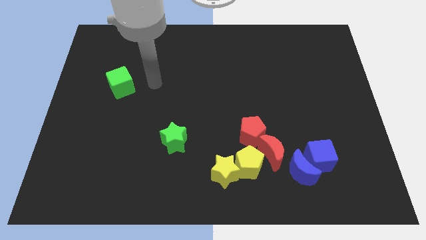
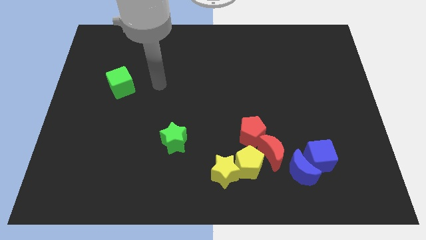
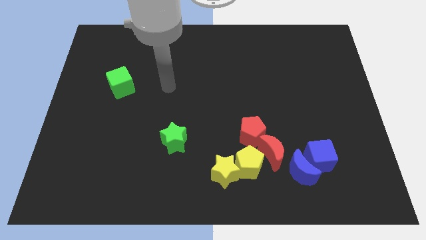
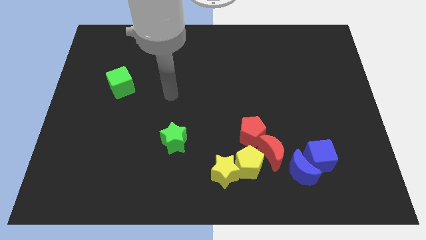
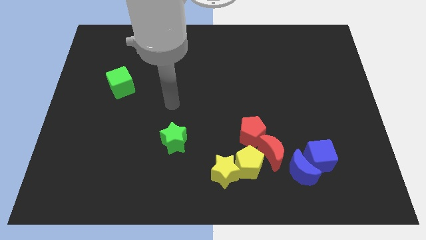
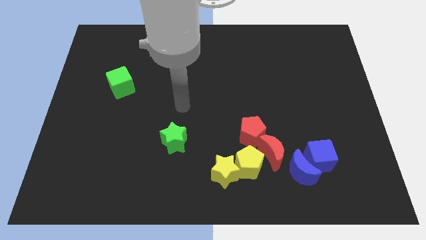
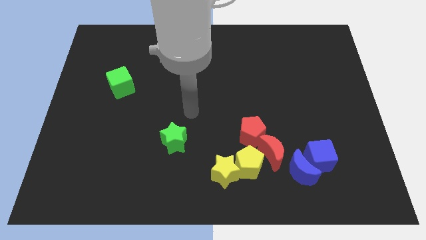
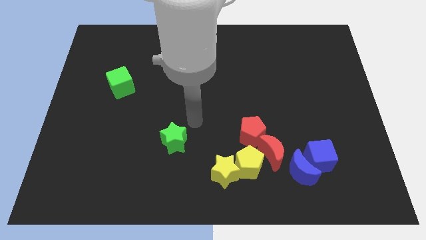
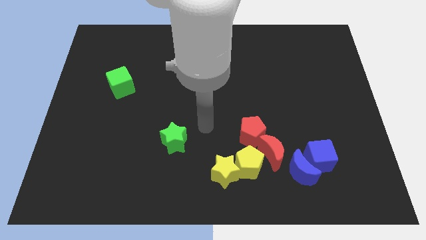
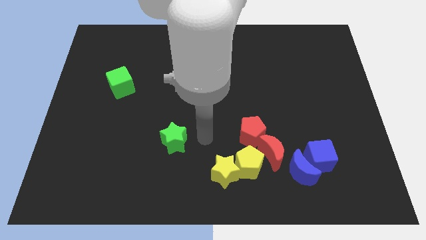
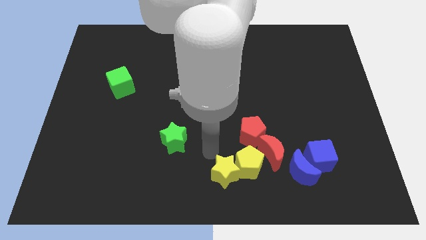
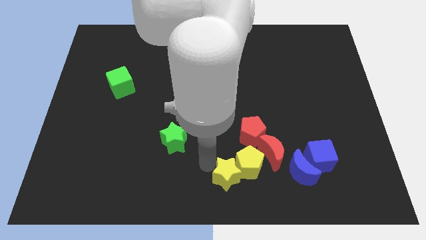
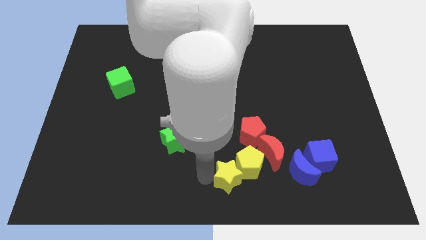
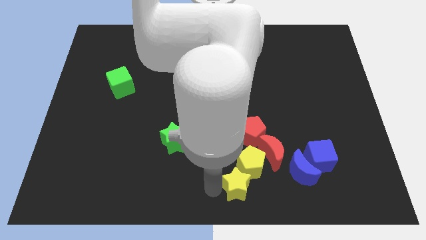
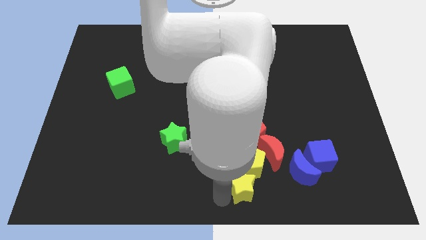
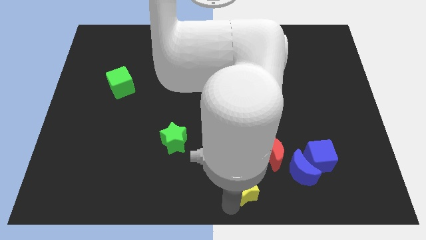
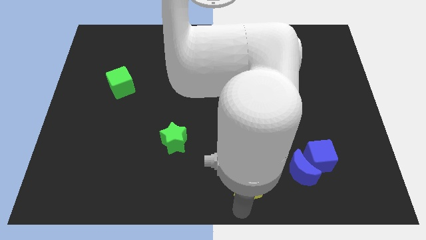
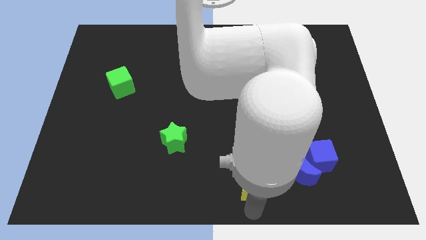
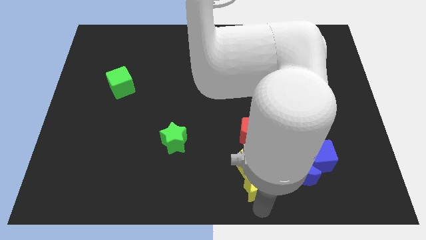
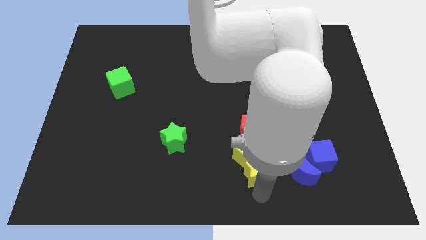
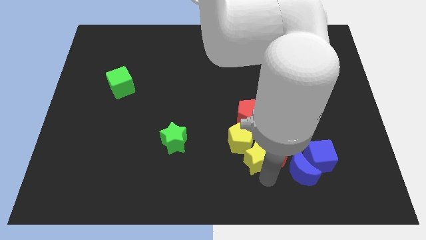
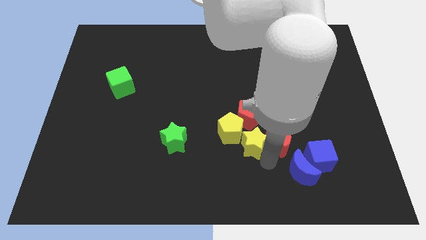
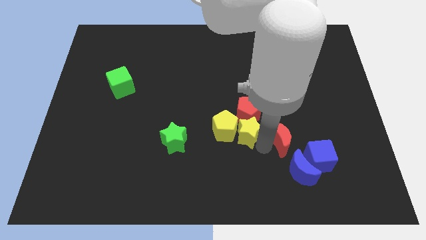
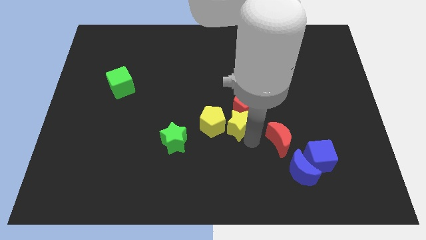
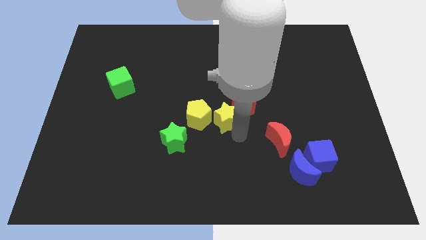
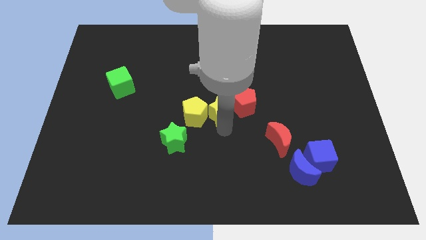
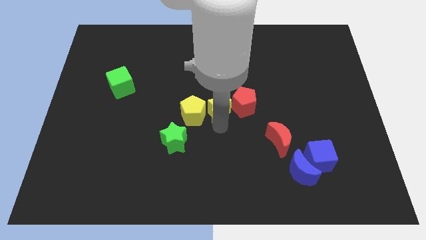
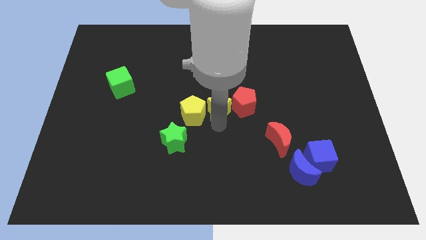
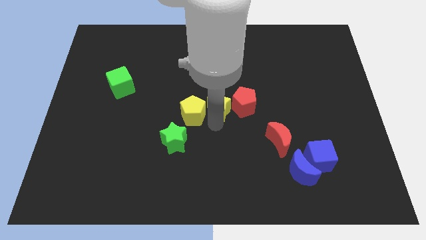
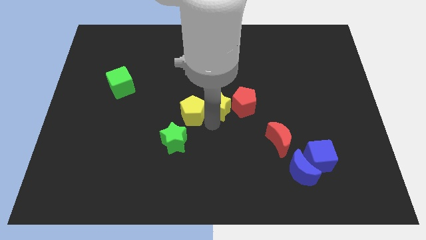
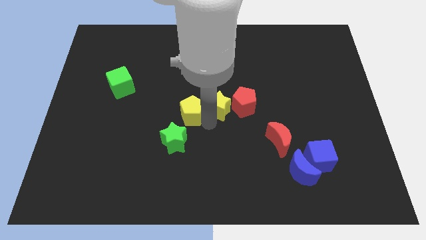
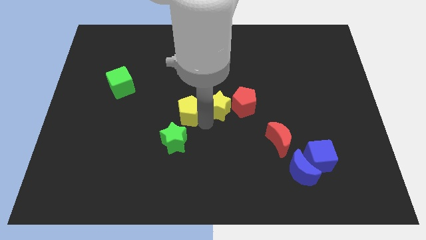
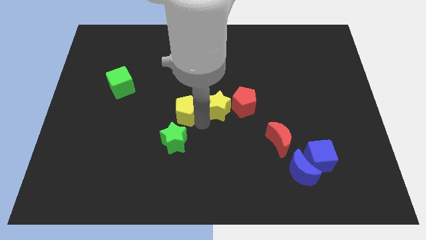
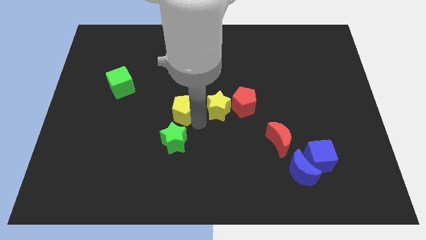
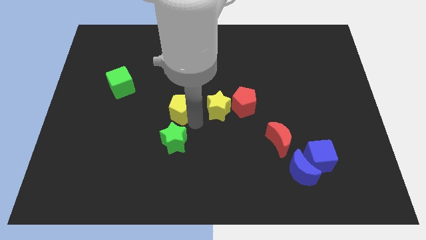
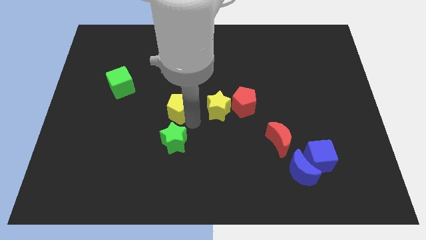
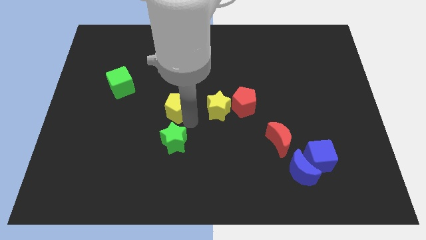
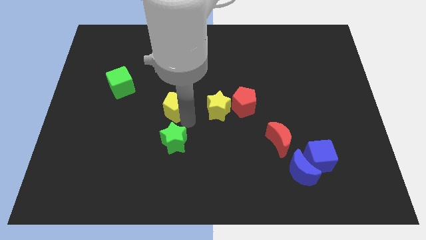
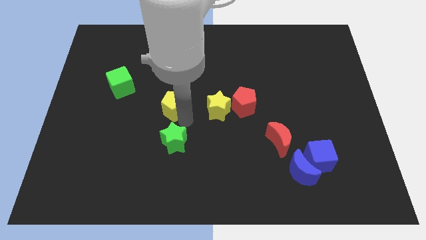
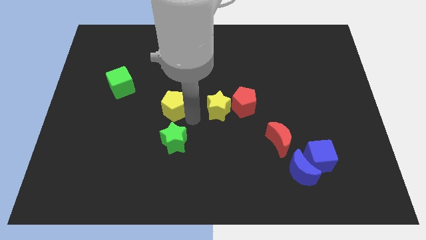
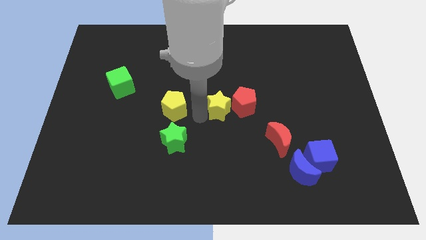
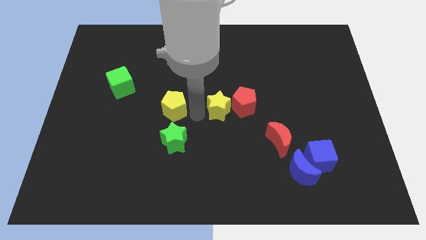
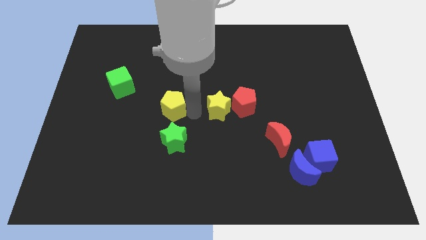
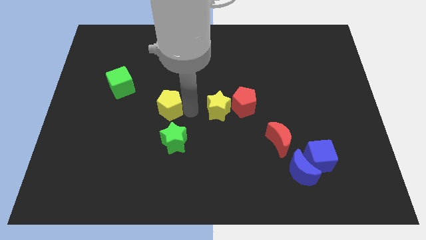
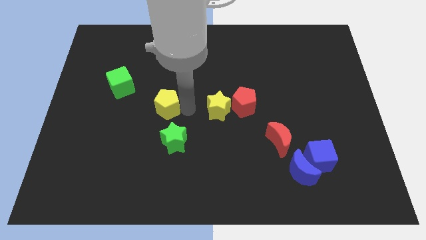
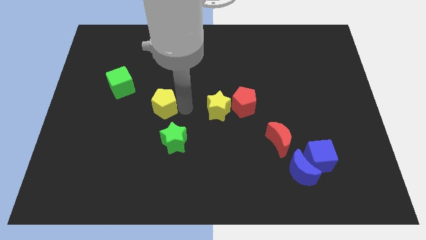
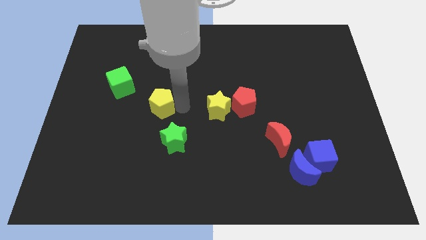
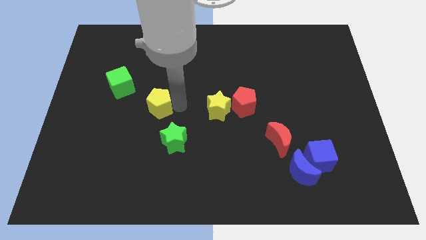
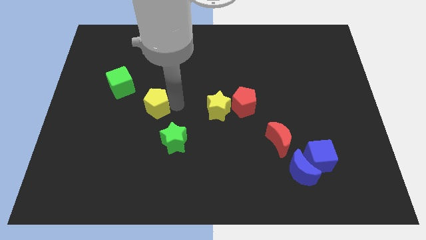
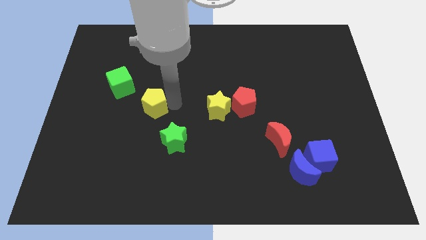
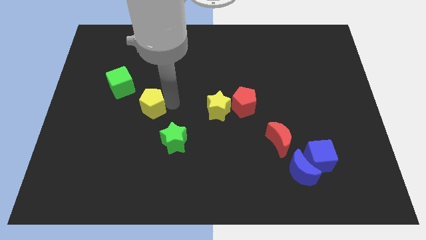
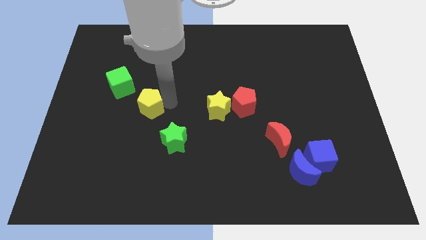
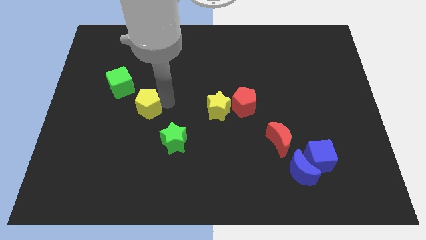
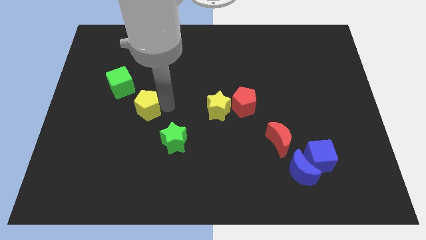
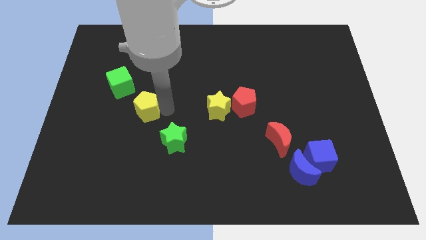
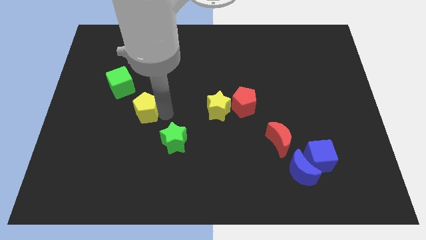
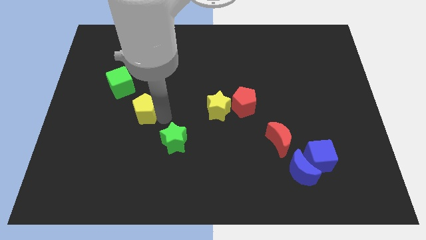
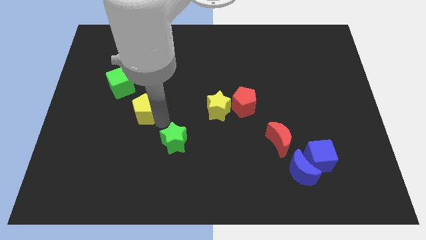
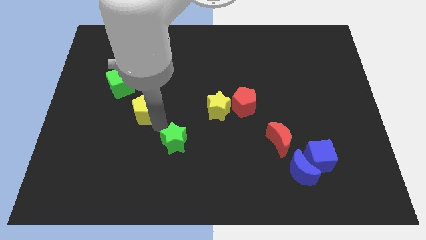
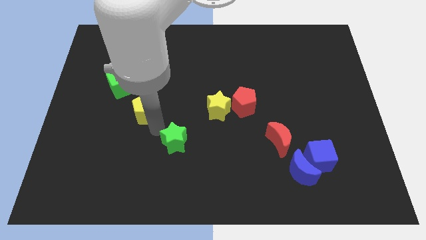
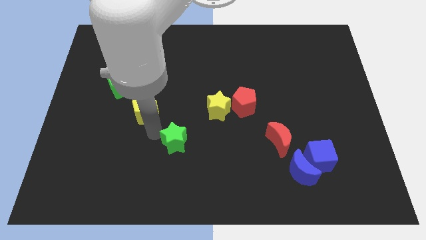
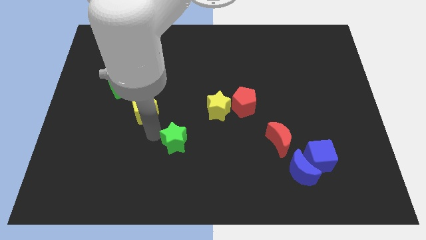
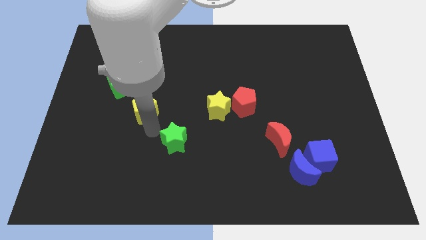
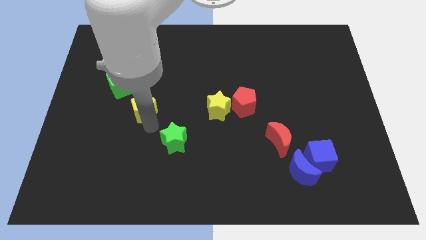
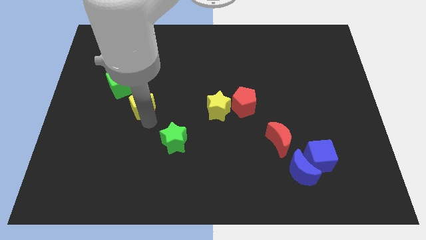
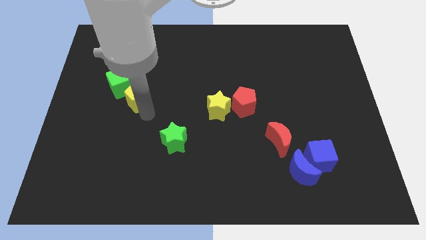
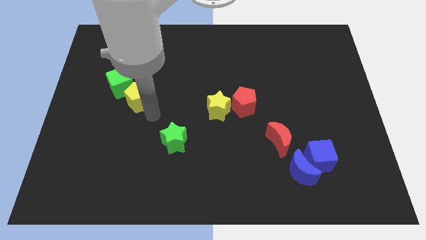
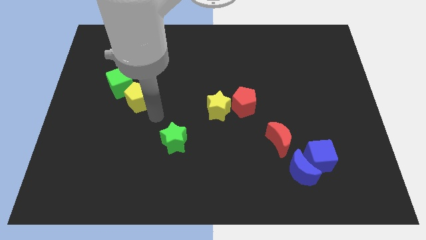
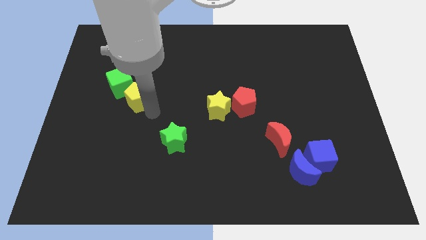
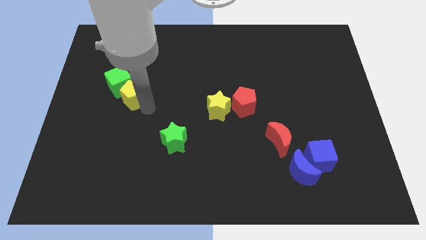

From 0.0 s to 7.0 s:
slide the yellow pentagon towards the green cube
